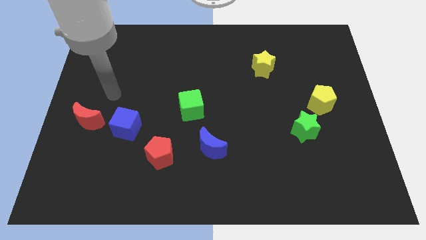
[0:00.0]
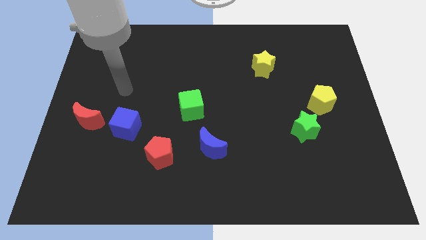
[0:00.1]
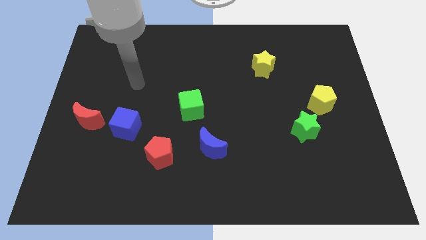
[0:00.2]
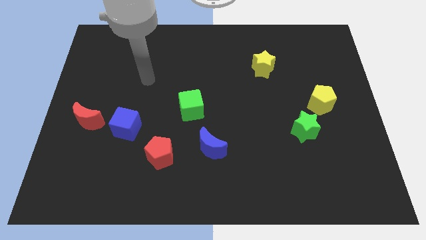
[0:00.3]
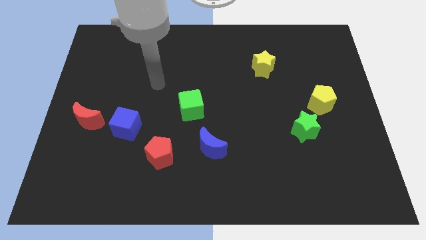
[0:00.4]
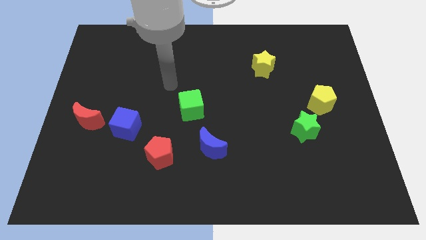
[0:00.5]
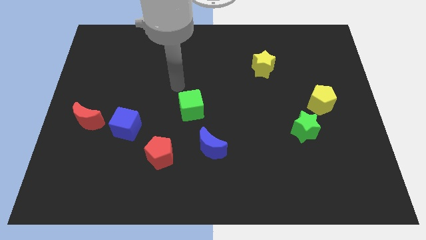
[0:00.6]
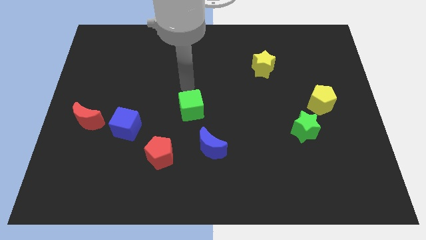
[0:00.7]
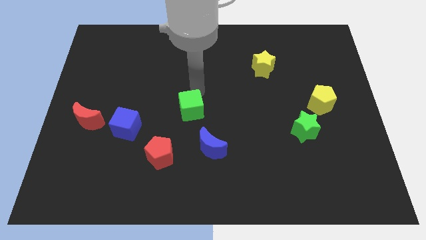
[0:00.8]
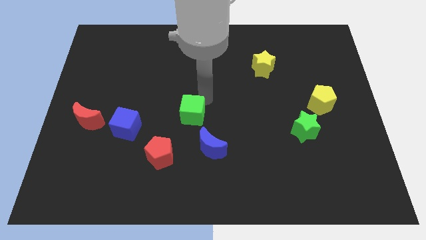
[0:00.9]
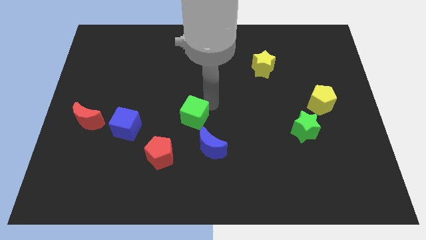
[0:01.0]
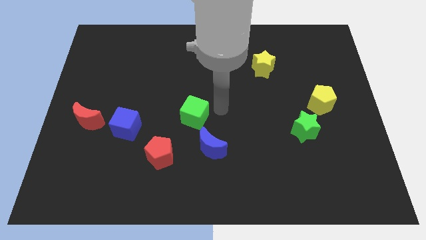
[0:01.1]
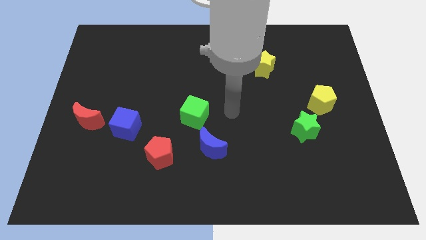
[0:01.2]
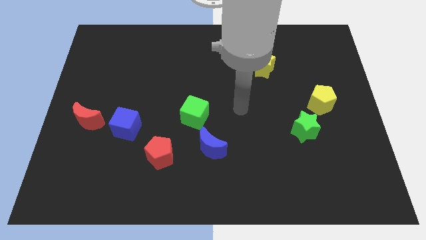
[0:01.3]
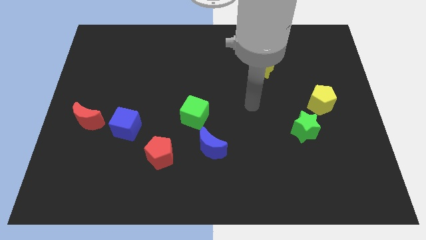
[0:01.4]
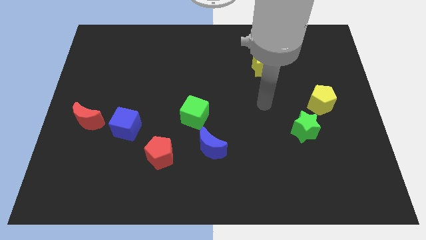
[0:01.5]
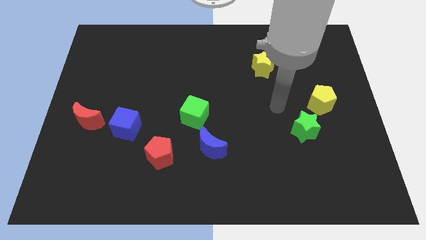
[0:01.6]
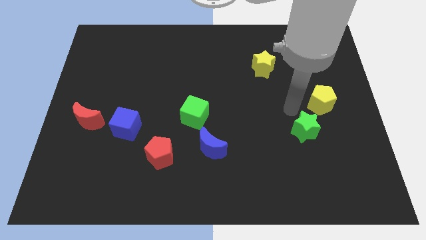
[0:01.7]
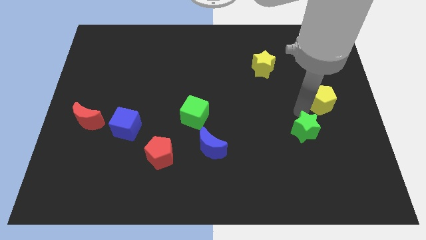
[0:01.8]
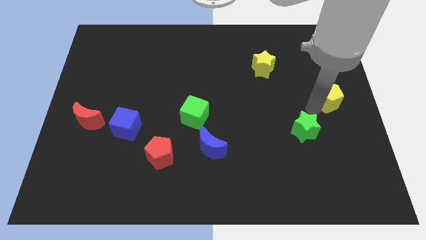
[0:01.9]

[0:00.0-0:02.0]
pull the green star apart from the yellow pentagon

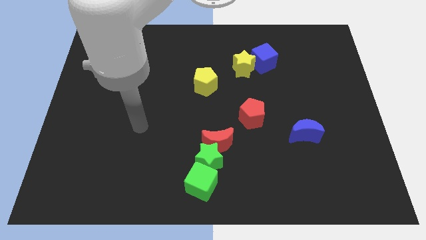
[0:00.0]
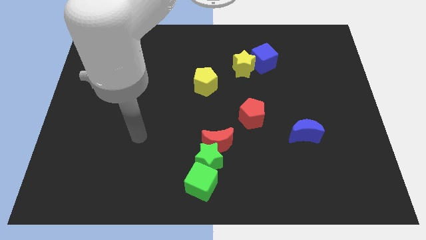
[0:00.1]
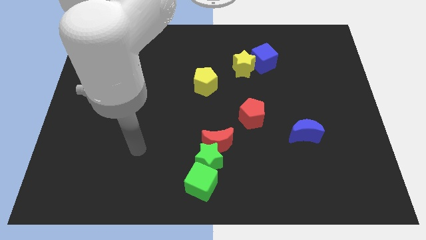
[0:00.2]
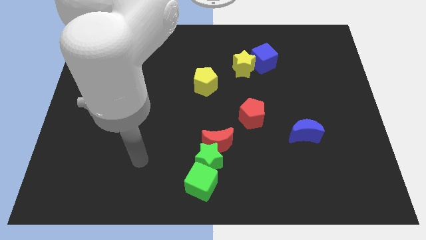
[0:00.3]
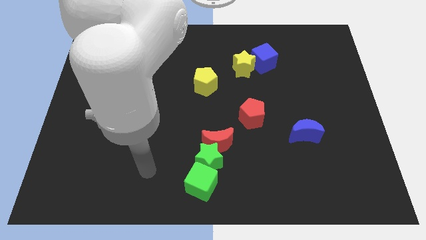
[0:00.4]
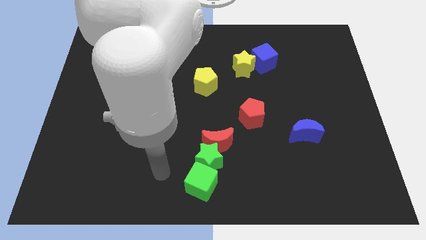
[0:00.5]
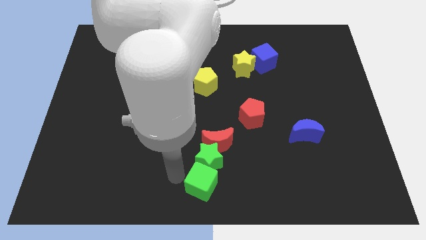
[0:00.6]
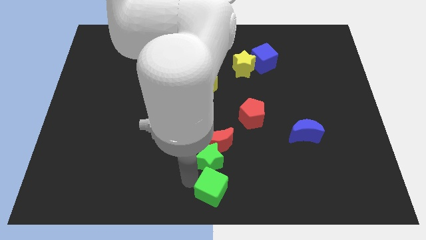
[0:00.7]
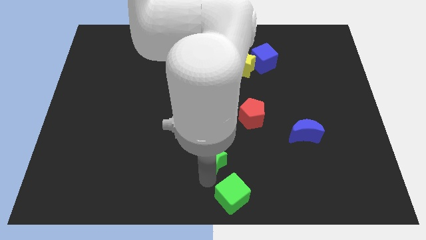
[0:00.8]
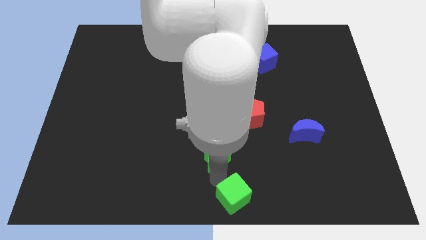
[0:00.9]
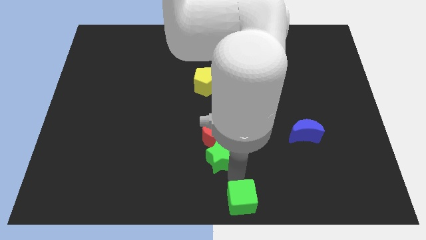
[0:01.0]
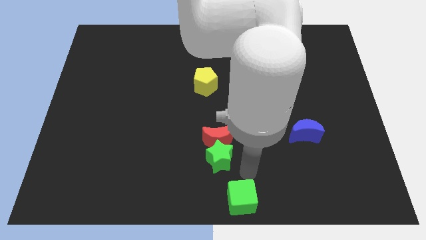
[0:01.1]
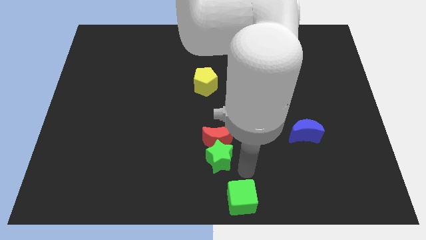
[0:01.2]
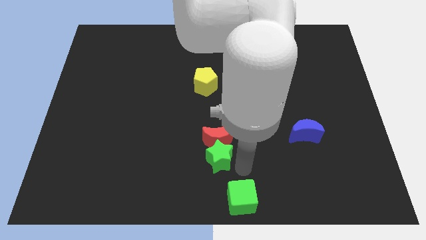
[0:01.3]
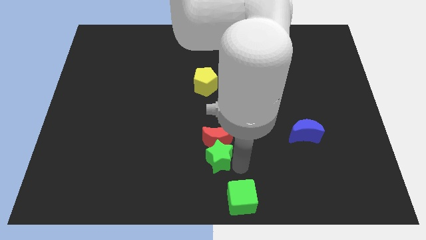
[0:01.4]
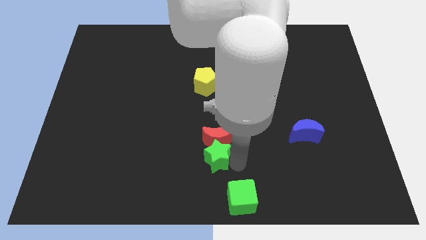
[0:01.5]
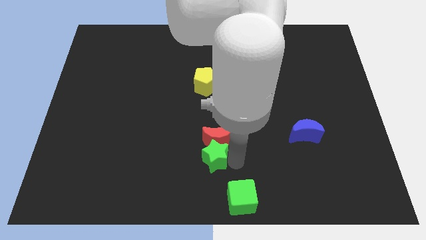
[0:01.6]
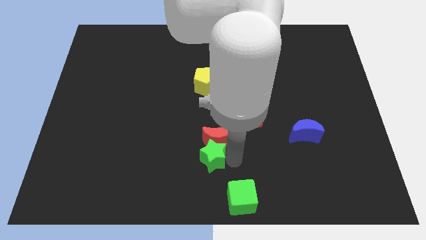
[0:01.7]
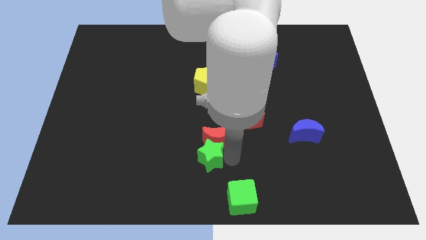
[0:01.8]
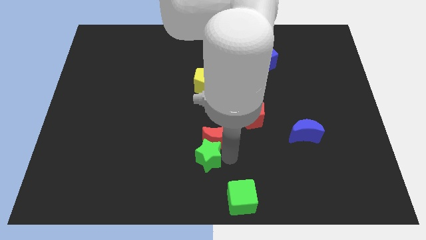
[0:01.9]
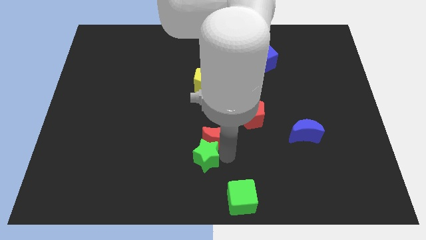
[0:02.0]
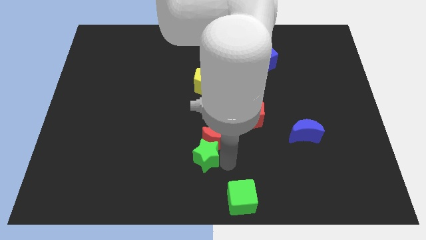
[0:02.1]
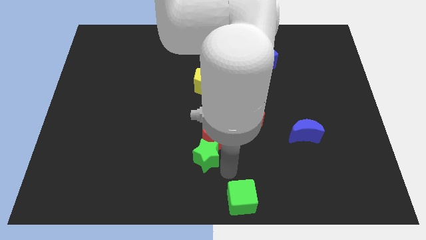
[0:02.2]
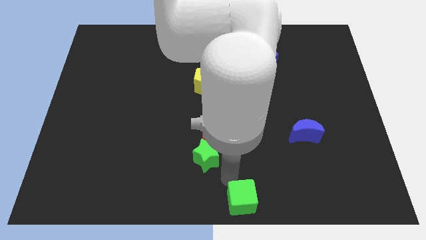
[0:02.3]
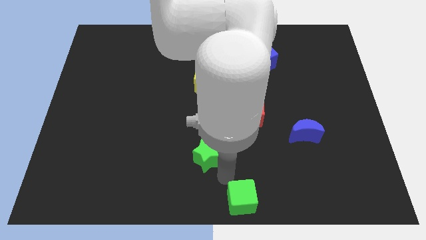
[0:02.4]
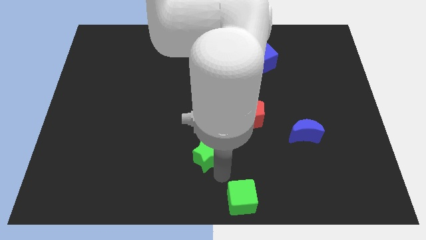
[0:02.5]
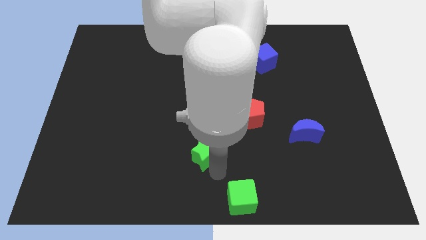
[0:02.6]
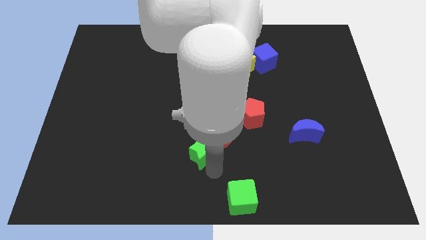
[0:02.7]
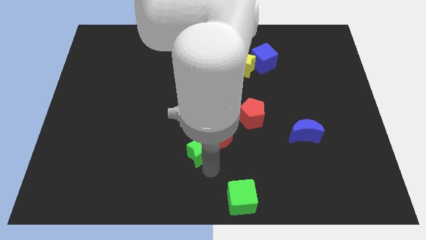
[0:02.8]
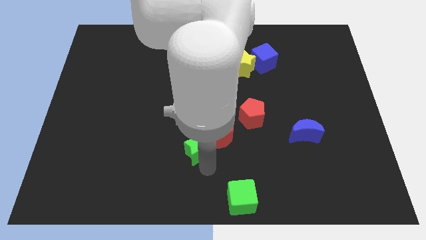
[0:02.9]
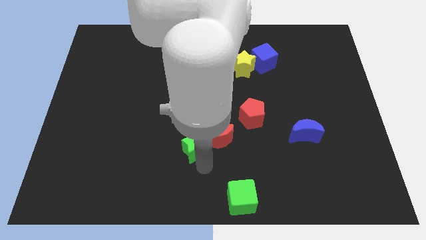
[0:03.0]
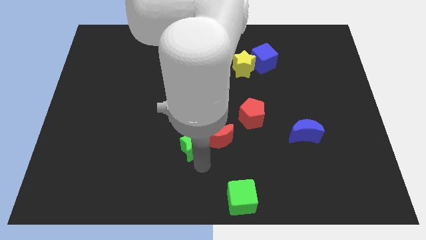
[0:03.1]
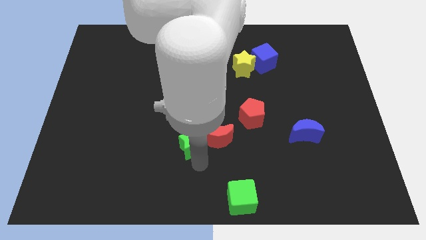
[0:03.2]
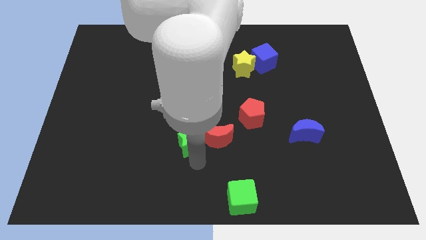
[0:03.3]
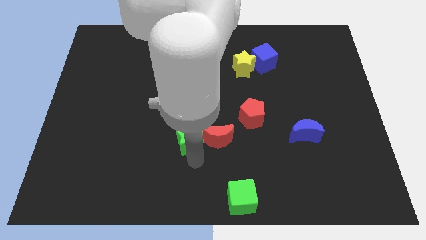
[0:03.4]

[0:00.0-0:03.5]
separate the green star from the red moon and green cube

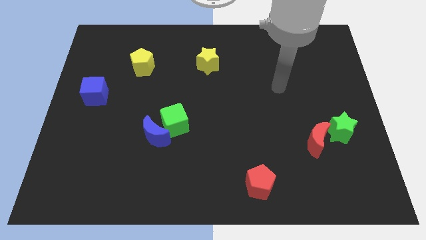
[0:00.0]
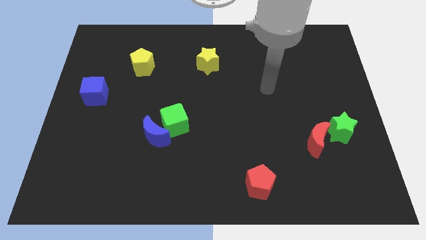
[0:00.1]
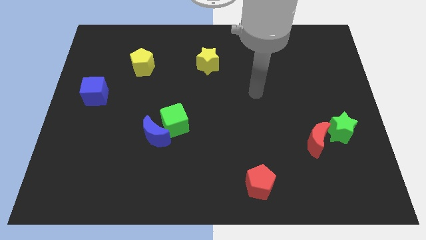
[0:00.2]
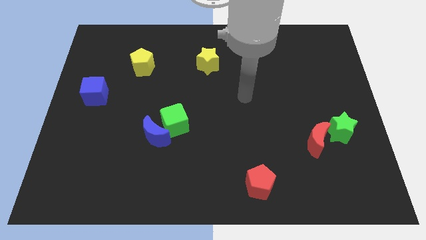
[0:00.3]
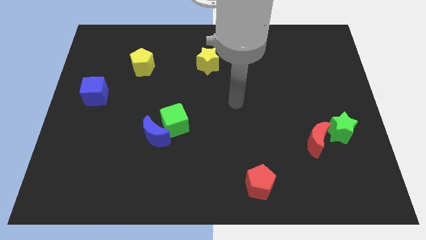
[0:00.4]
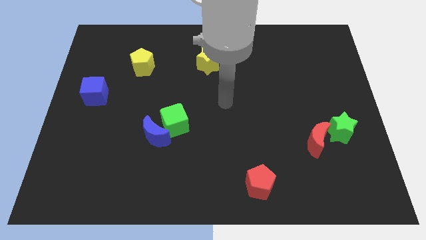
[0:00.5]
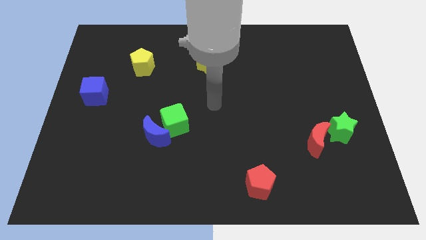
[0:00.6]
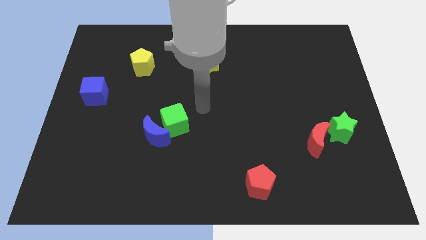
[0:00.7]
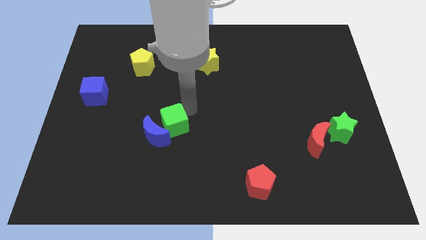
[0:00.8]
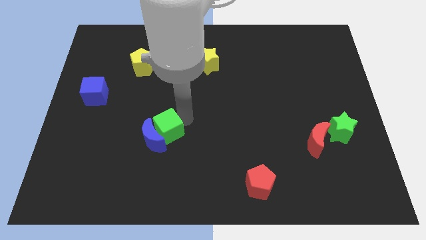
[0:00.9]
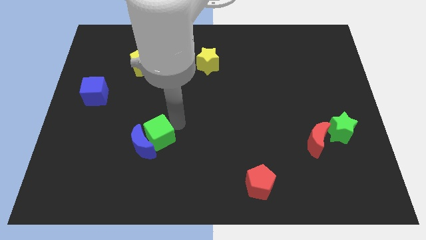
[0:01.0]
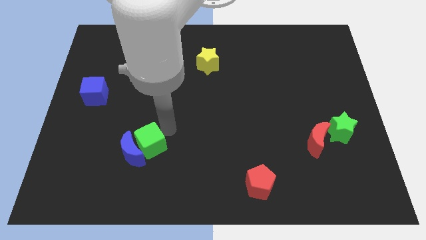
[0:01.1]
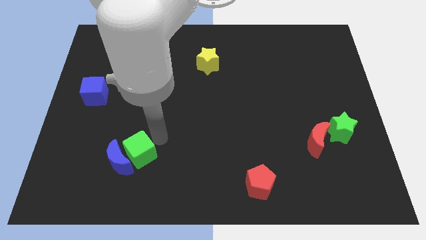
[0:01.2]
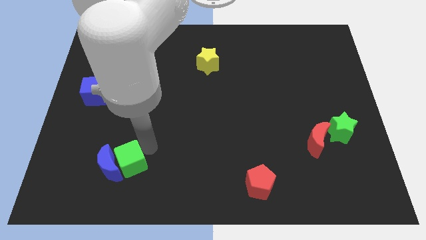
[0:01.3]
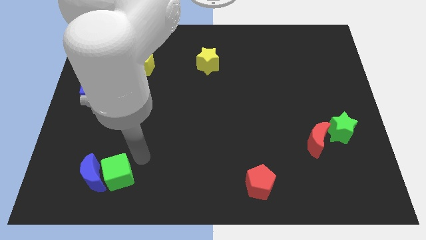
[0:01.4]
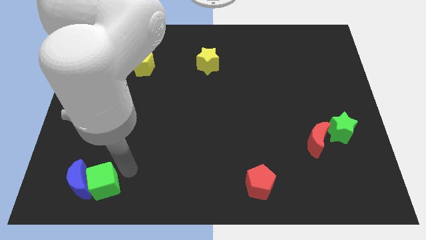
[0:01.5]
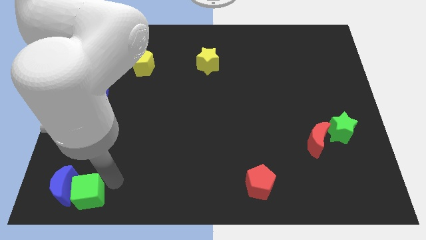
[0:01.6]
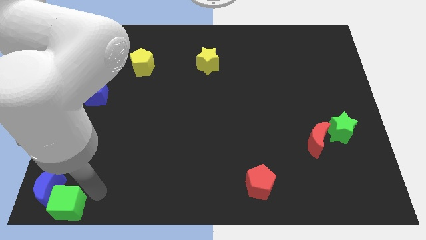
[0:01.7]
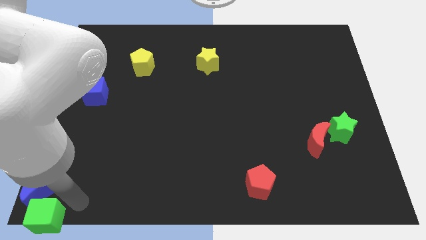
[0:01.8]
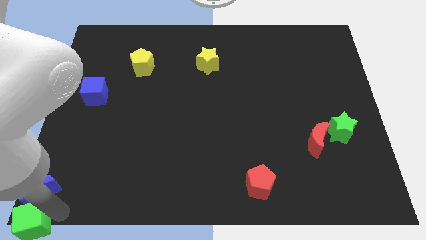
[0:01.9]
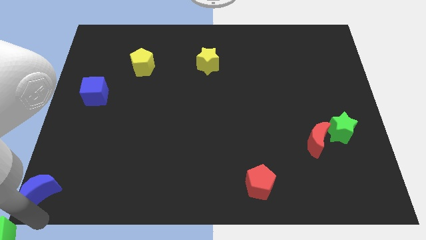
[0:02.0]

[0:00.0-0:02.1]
move the blue moon away from the green cube

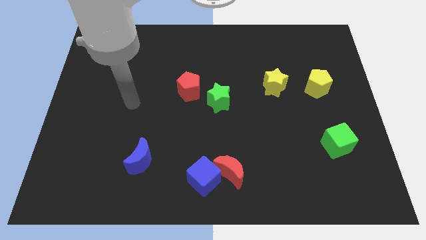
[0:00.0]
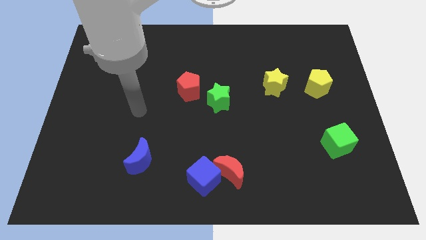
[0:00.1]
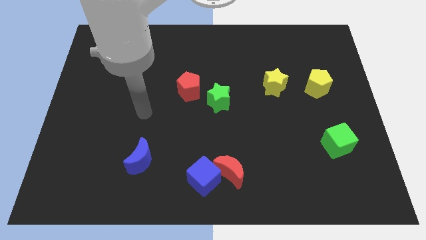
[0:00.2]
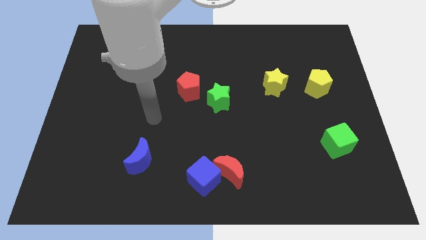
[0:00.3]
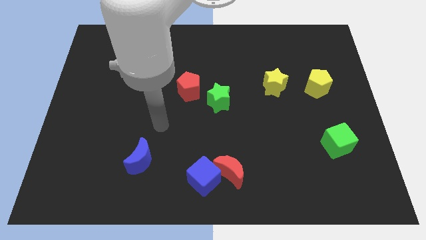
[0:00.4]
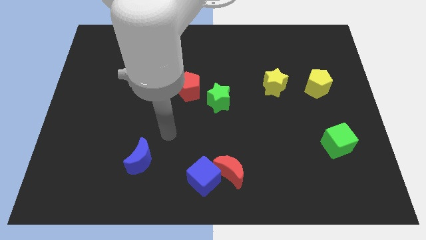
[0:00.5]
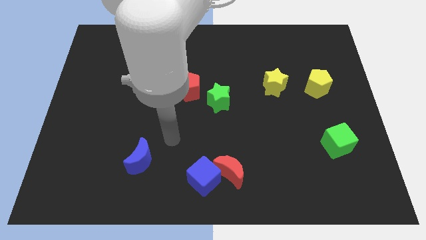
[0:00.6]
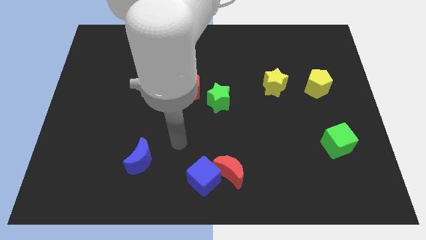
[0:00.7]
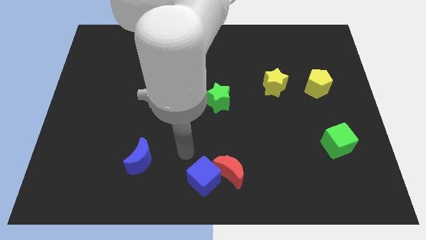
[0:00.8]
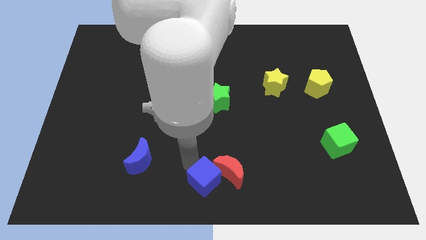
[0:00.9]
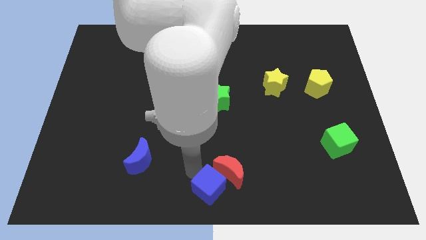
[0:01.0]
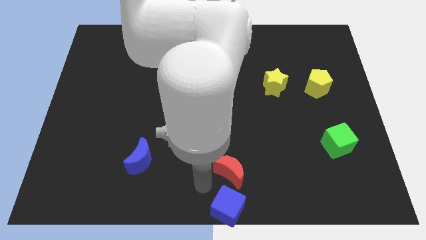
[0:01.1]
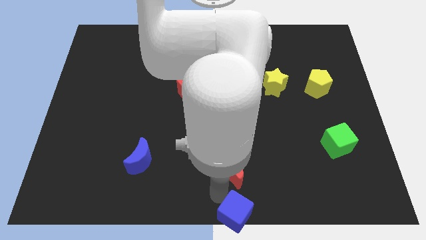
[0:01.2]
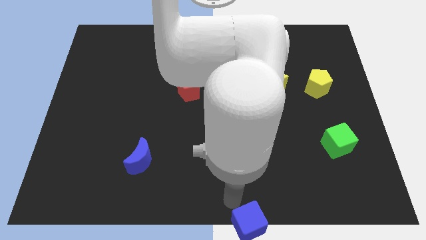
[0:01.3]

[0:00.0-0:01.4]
pull the red moon apart from the blue cube

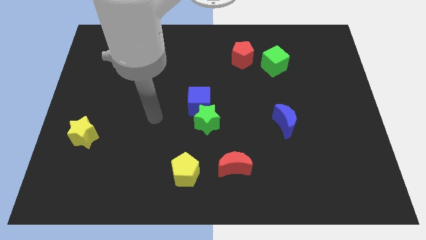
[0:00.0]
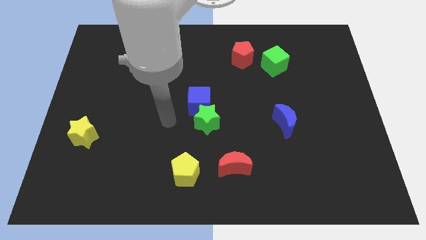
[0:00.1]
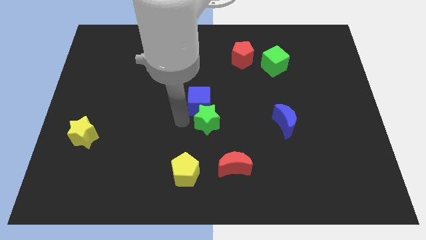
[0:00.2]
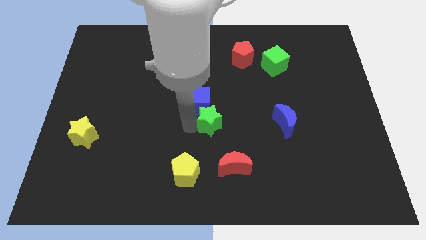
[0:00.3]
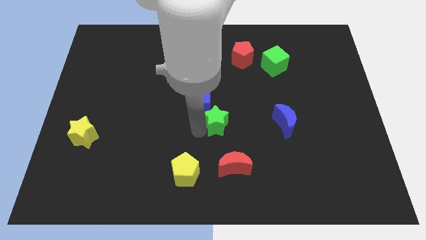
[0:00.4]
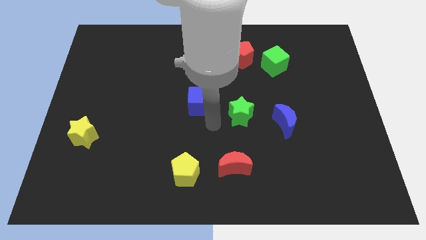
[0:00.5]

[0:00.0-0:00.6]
move the blue cube away from the green star
